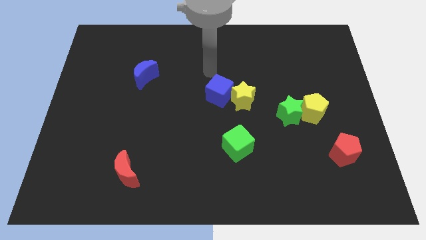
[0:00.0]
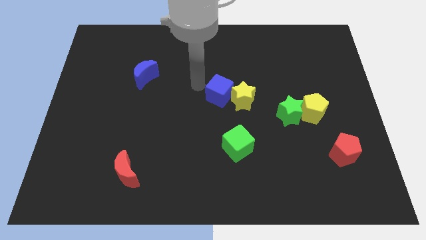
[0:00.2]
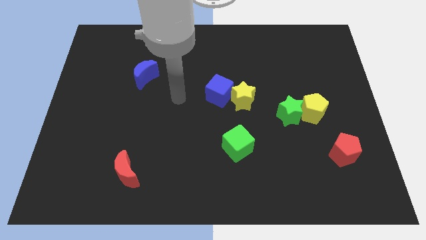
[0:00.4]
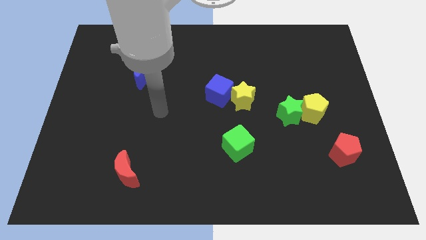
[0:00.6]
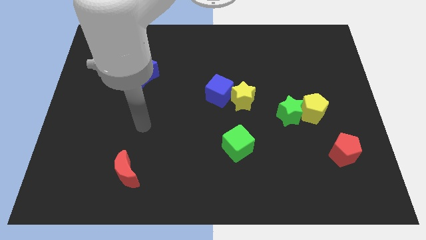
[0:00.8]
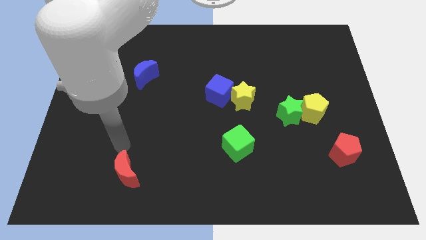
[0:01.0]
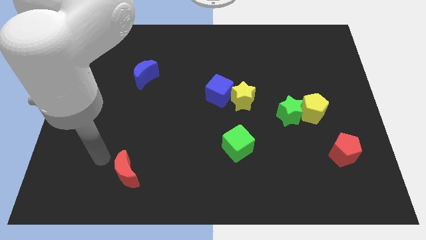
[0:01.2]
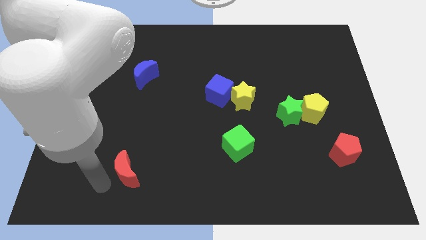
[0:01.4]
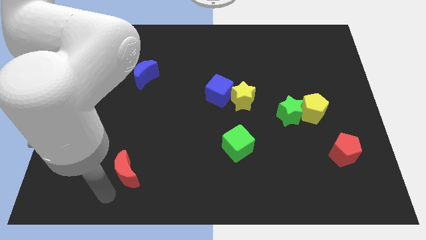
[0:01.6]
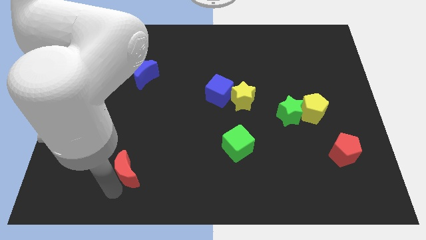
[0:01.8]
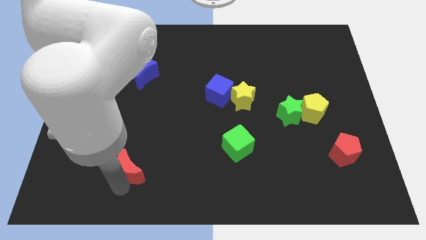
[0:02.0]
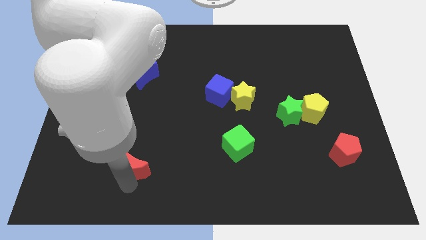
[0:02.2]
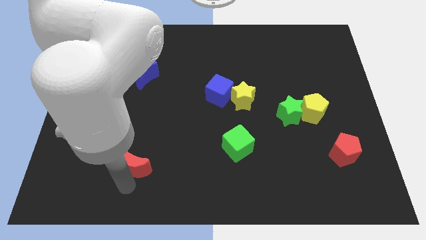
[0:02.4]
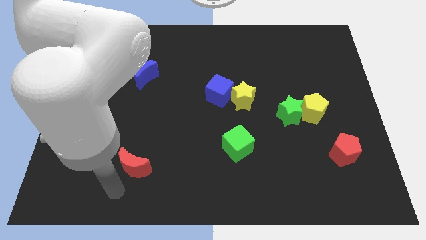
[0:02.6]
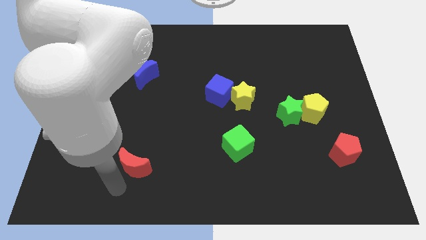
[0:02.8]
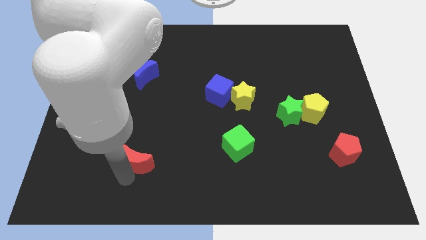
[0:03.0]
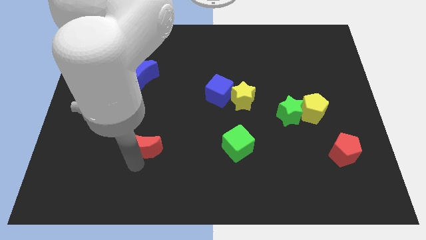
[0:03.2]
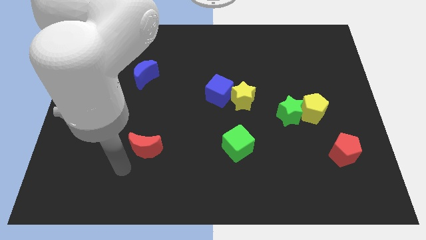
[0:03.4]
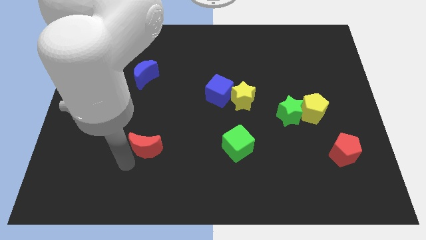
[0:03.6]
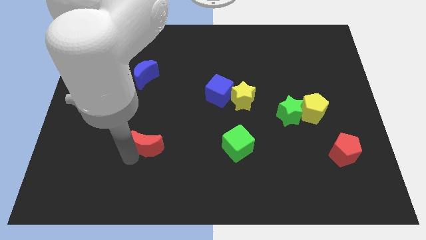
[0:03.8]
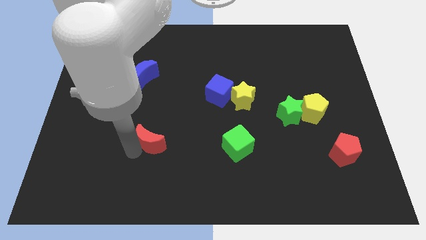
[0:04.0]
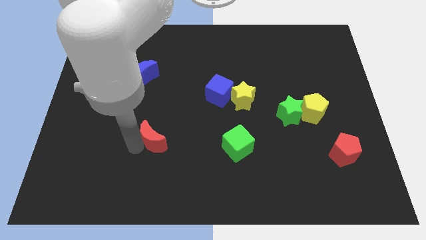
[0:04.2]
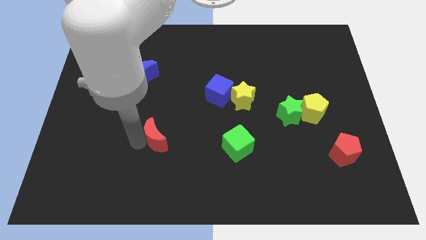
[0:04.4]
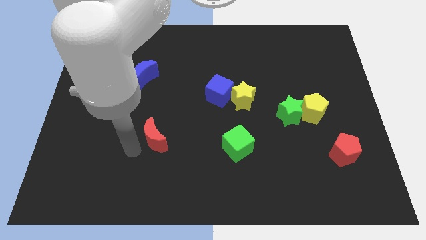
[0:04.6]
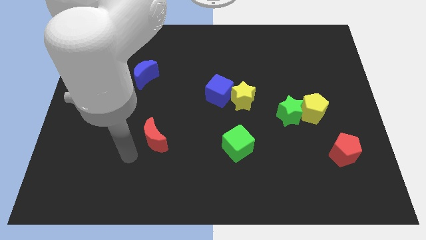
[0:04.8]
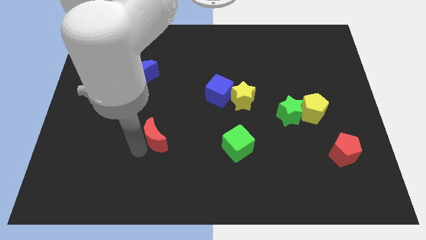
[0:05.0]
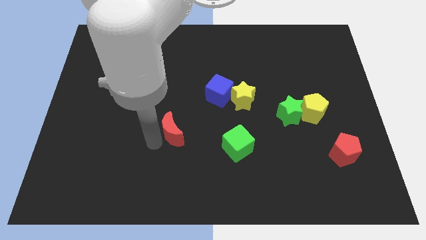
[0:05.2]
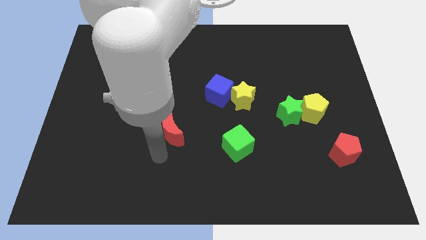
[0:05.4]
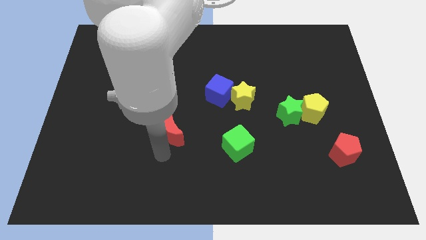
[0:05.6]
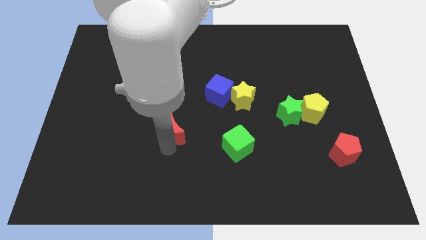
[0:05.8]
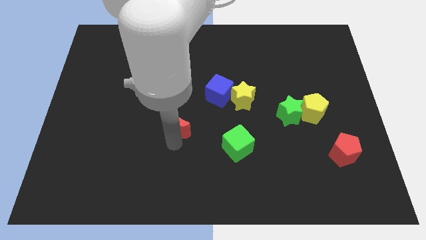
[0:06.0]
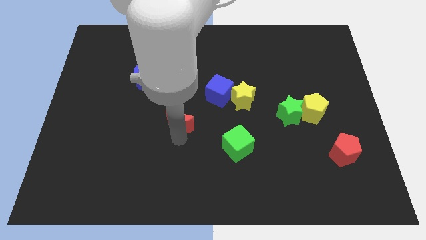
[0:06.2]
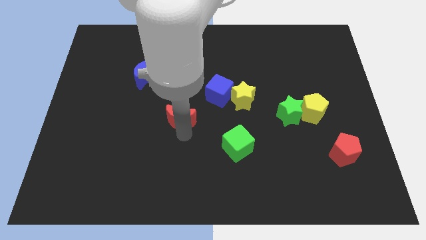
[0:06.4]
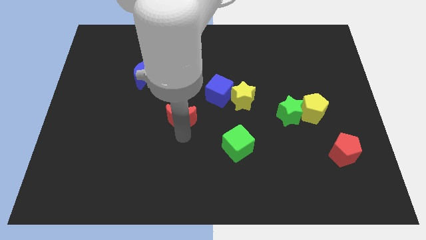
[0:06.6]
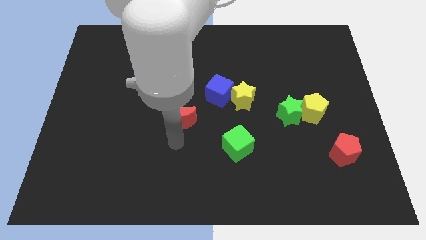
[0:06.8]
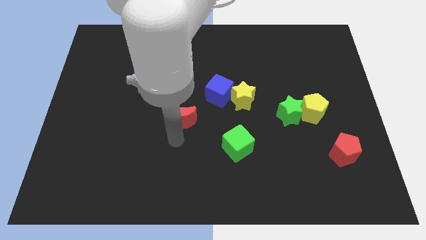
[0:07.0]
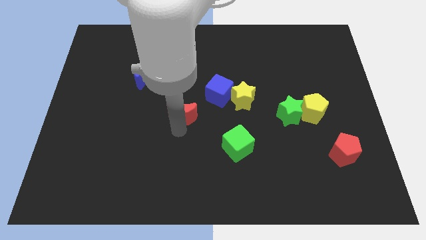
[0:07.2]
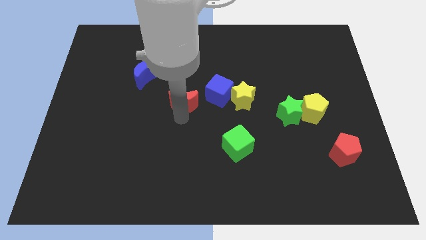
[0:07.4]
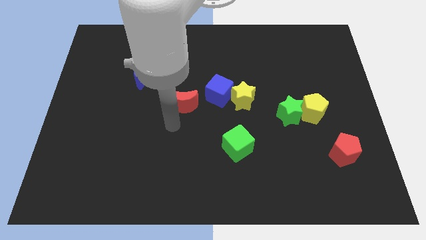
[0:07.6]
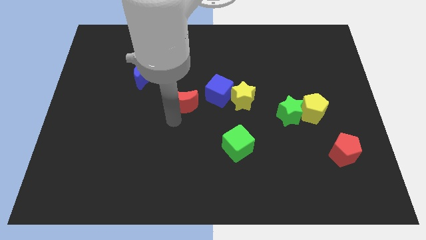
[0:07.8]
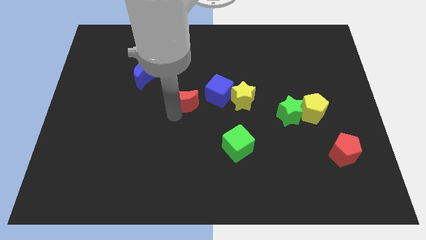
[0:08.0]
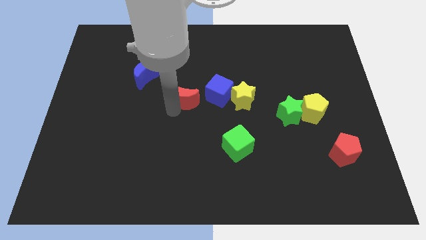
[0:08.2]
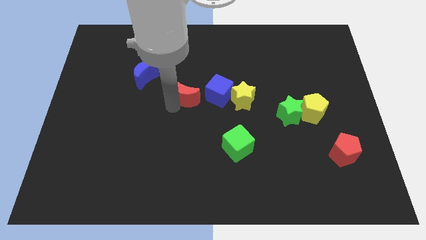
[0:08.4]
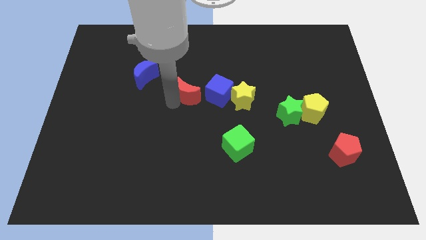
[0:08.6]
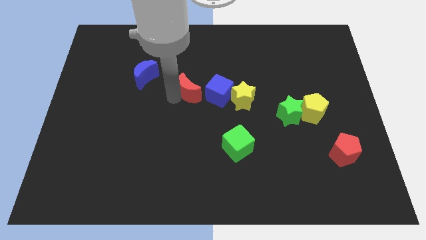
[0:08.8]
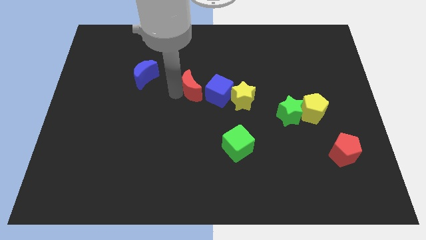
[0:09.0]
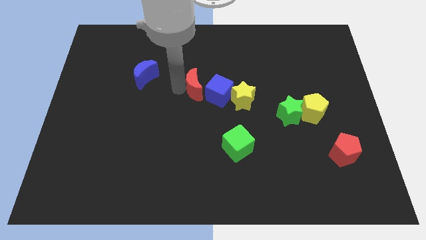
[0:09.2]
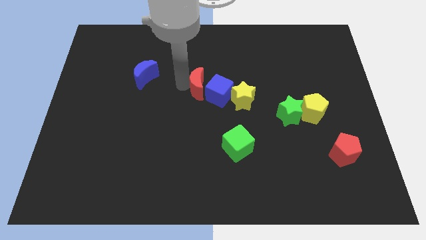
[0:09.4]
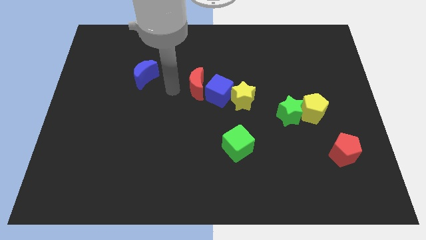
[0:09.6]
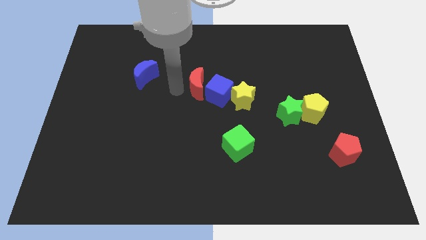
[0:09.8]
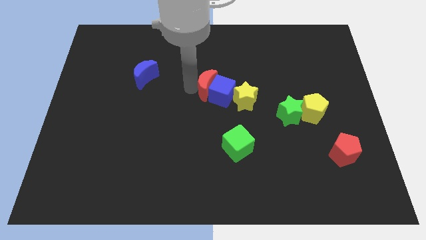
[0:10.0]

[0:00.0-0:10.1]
put the red moon to the top left side of the yellow star
